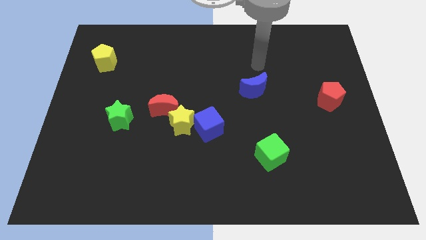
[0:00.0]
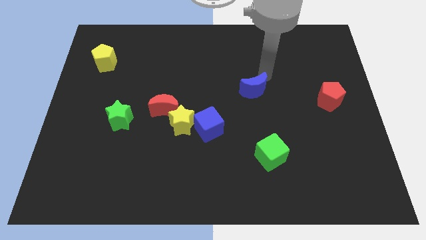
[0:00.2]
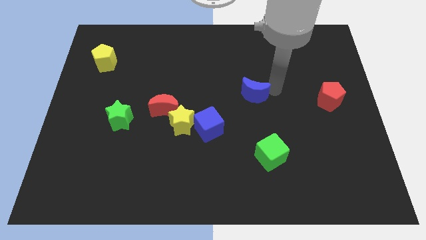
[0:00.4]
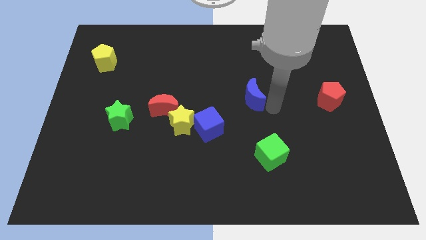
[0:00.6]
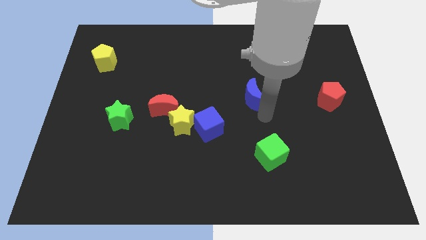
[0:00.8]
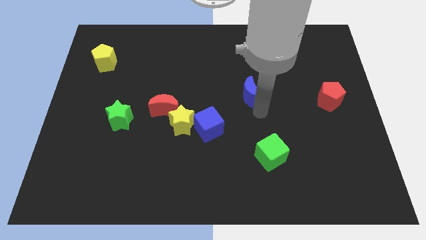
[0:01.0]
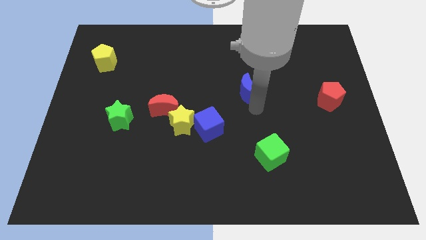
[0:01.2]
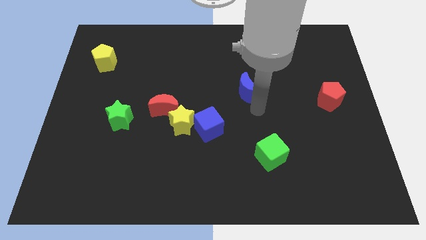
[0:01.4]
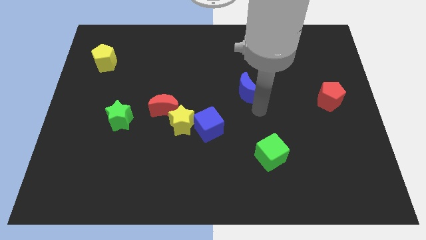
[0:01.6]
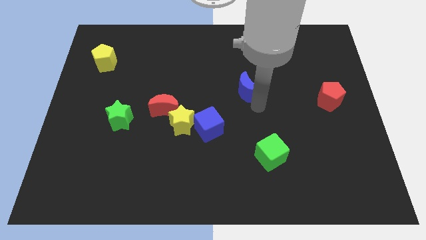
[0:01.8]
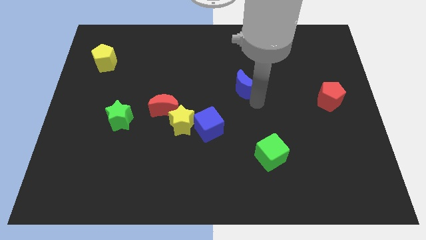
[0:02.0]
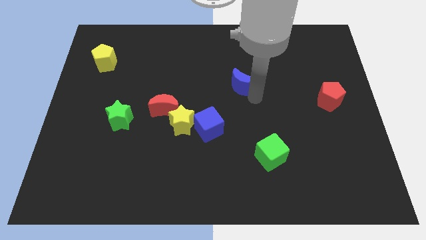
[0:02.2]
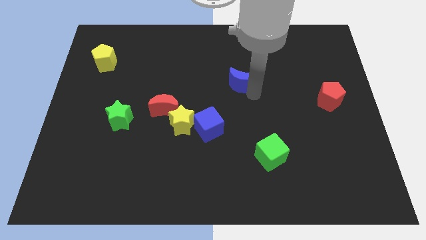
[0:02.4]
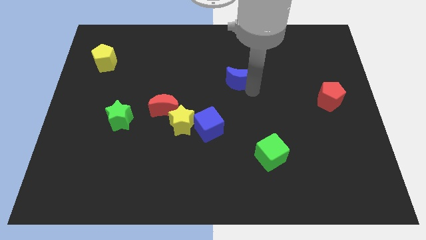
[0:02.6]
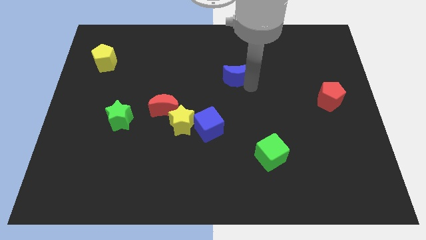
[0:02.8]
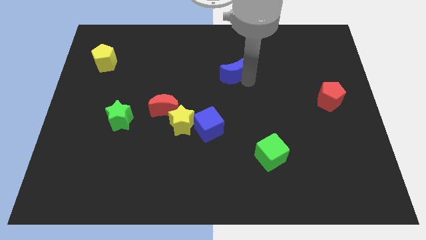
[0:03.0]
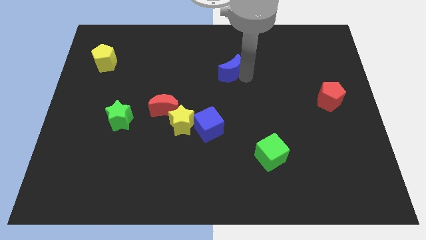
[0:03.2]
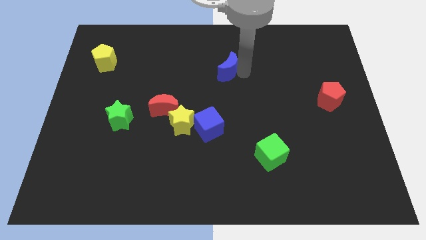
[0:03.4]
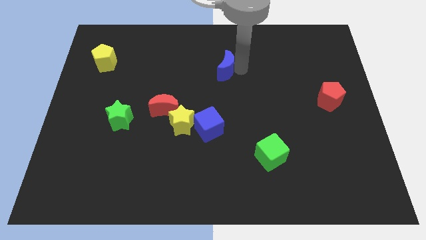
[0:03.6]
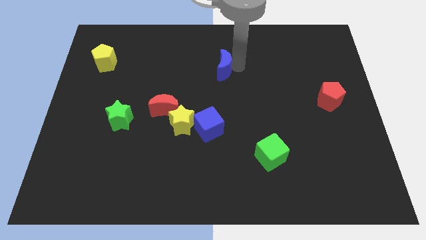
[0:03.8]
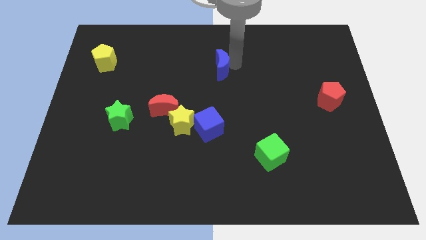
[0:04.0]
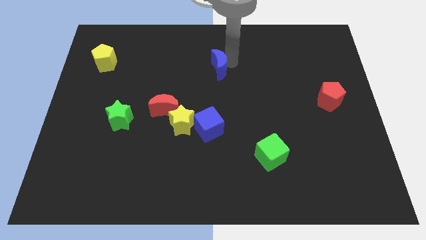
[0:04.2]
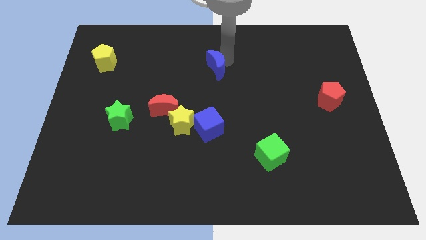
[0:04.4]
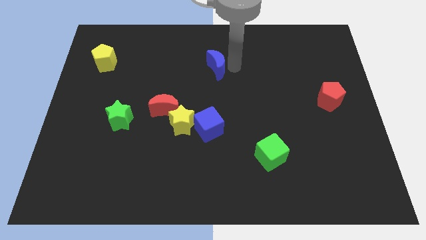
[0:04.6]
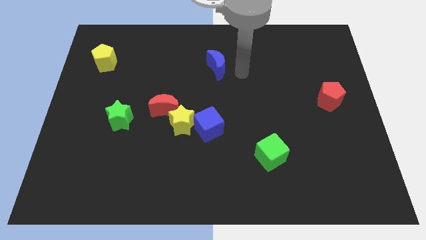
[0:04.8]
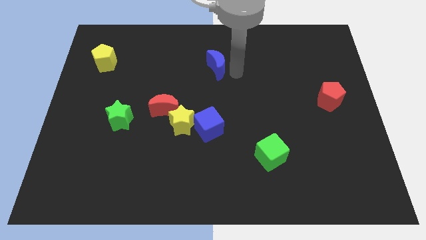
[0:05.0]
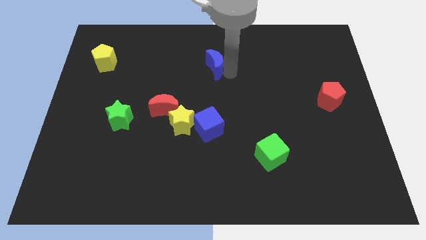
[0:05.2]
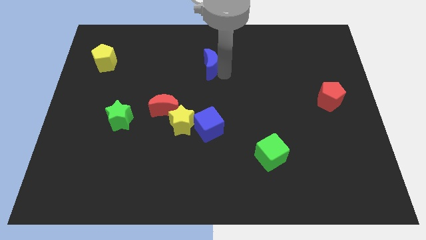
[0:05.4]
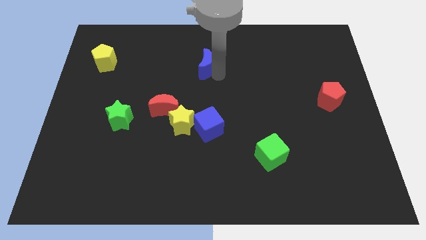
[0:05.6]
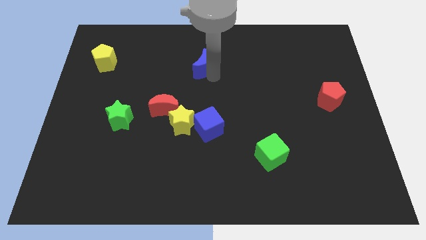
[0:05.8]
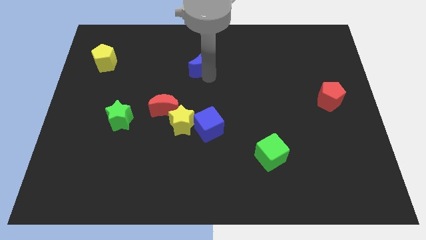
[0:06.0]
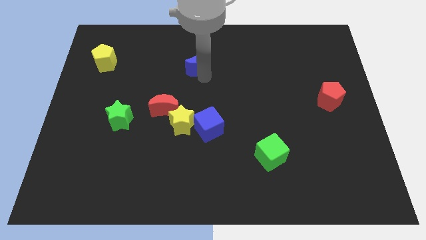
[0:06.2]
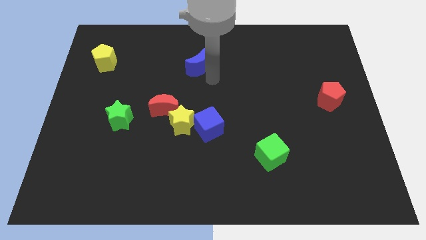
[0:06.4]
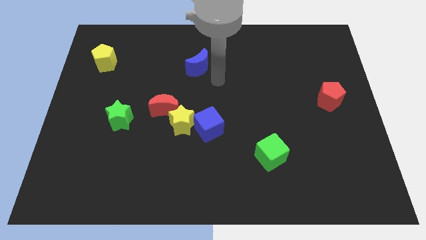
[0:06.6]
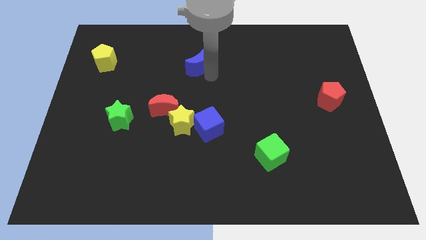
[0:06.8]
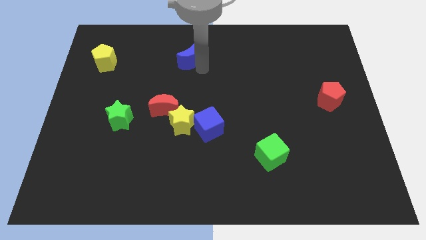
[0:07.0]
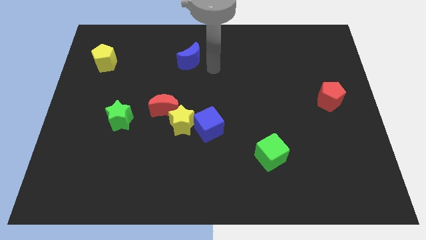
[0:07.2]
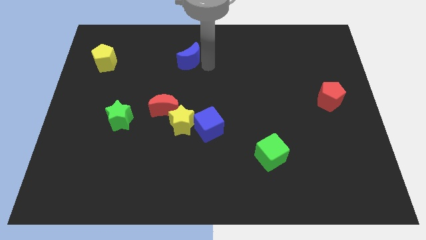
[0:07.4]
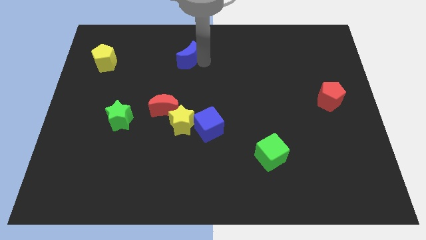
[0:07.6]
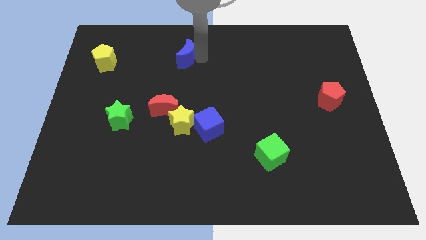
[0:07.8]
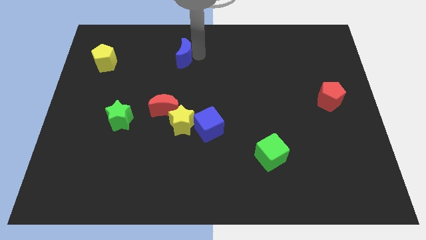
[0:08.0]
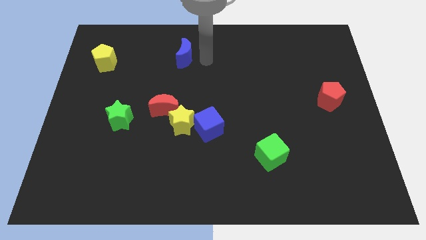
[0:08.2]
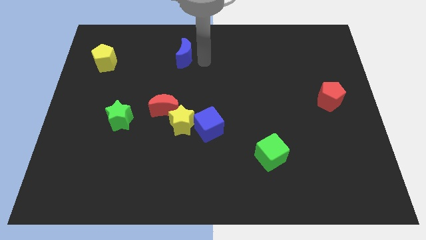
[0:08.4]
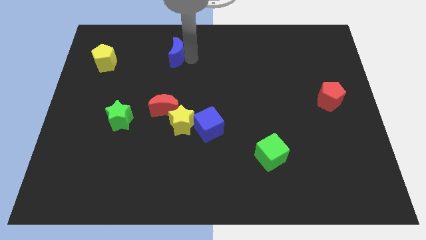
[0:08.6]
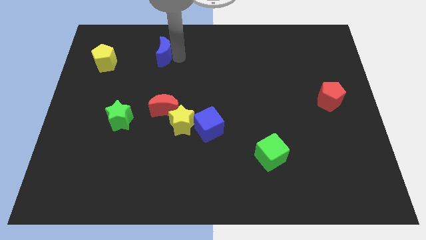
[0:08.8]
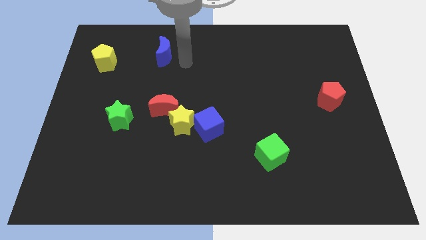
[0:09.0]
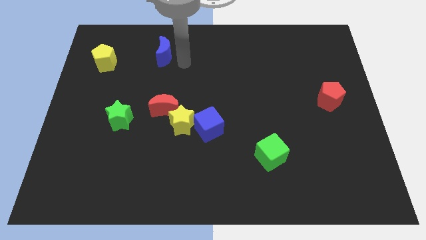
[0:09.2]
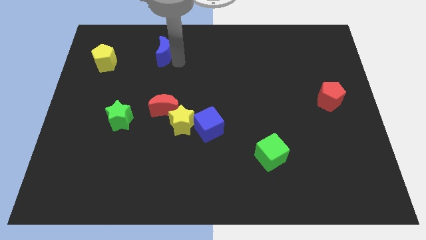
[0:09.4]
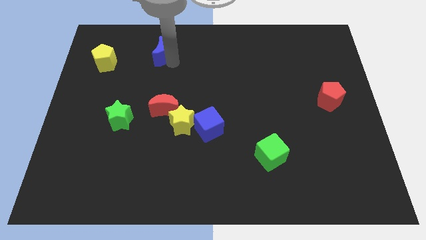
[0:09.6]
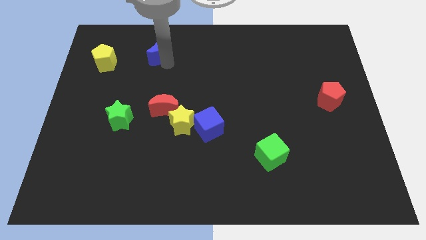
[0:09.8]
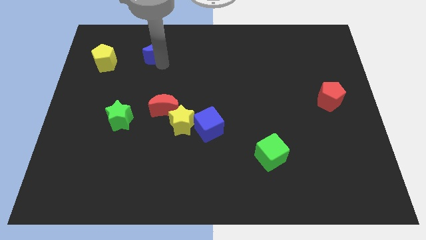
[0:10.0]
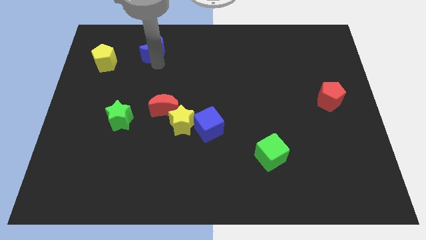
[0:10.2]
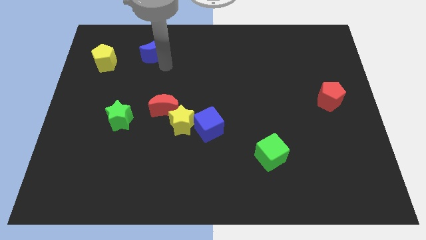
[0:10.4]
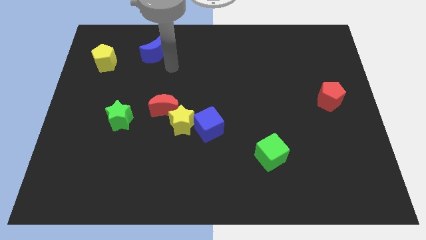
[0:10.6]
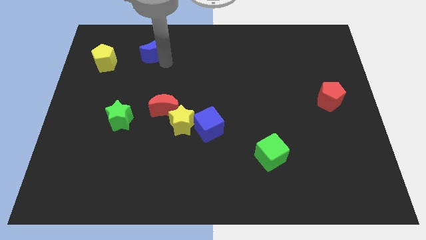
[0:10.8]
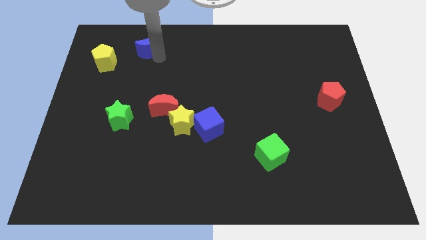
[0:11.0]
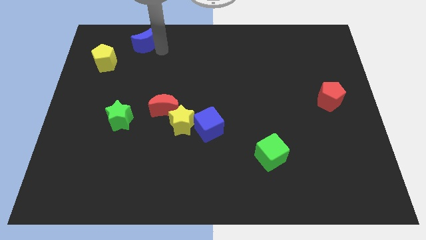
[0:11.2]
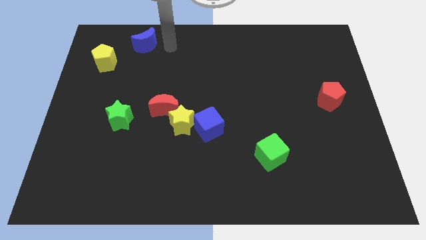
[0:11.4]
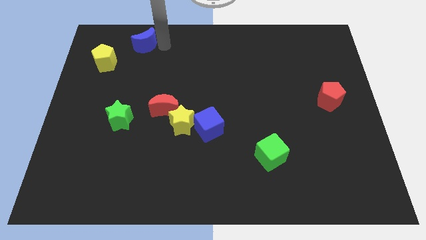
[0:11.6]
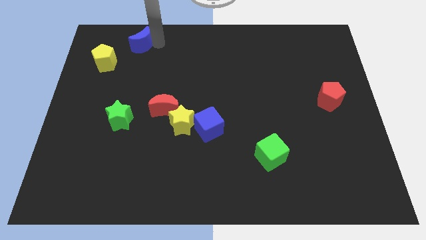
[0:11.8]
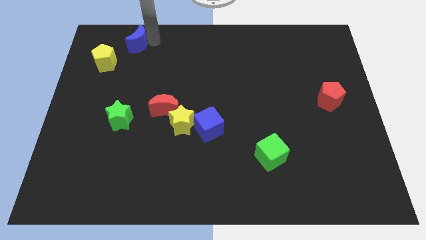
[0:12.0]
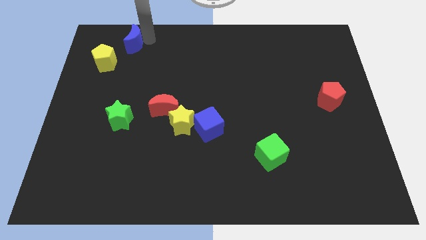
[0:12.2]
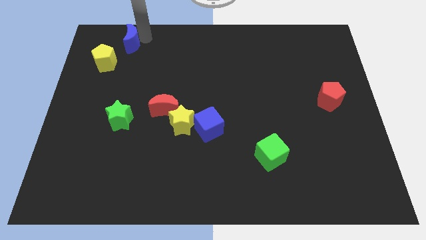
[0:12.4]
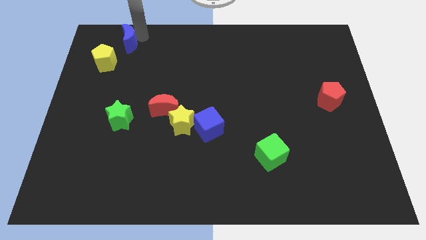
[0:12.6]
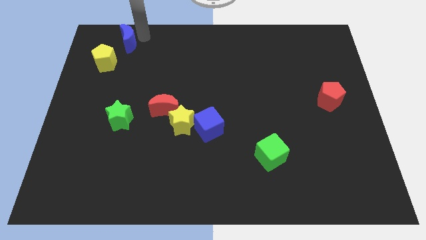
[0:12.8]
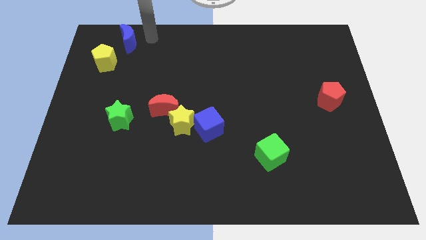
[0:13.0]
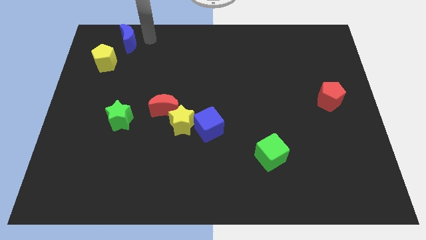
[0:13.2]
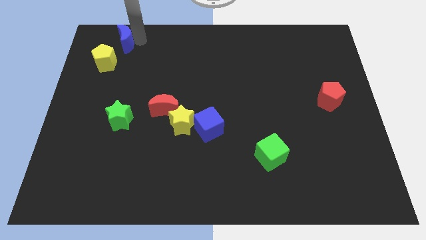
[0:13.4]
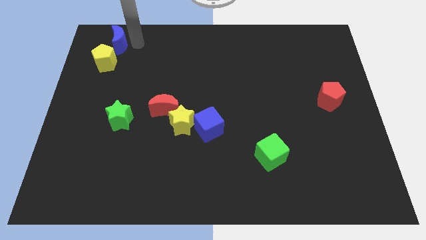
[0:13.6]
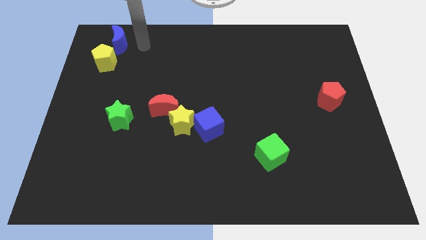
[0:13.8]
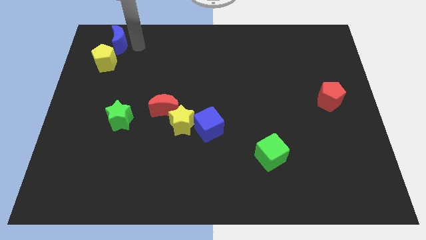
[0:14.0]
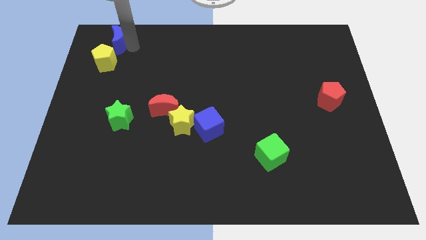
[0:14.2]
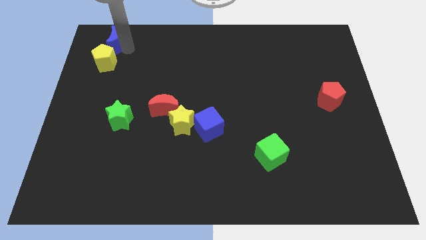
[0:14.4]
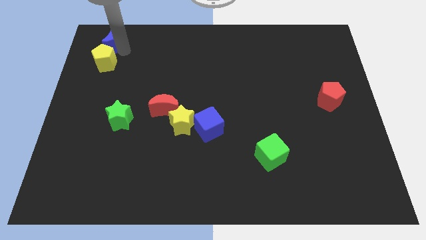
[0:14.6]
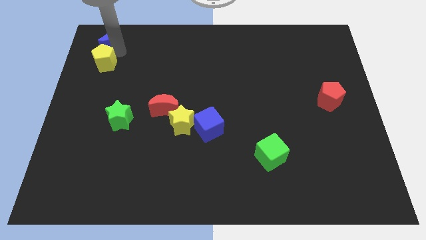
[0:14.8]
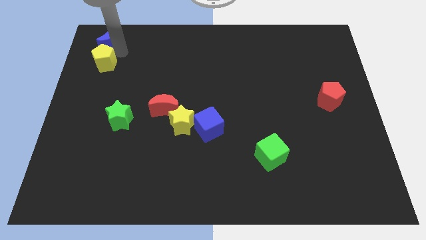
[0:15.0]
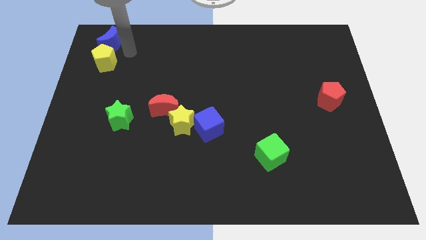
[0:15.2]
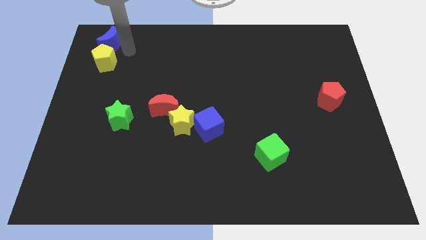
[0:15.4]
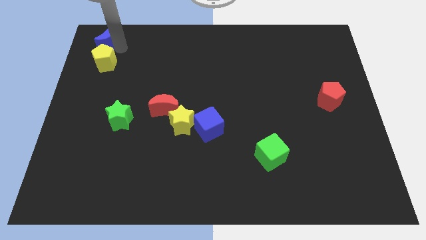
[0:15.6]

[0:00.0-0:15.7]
slide the blue moon to the top left corner
